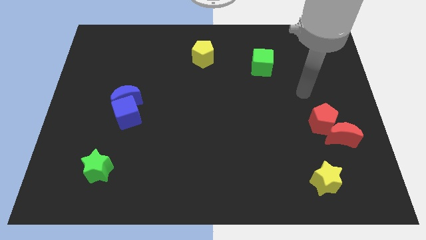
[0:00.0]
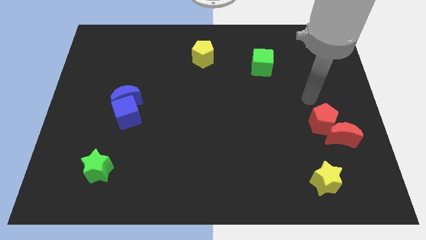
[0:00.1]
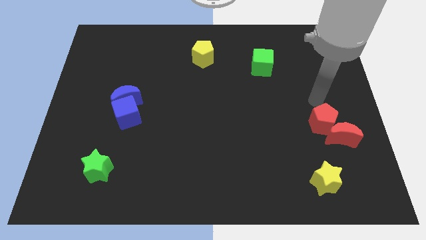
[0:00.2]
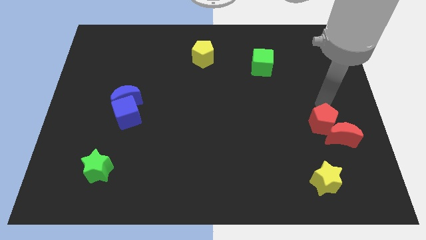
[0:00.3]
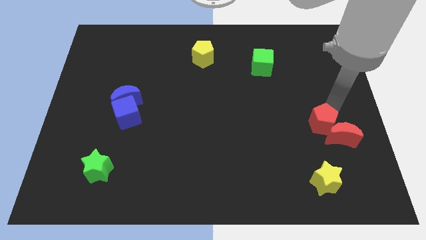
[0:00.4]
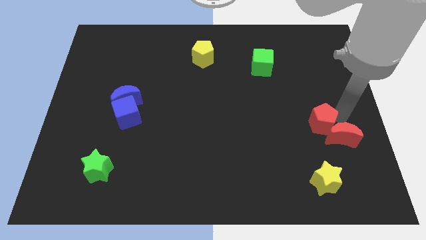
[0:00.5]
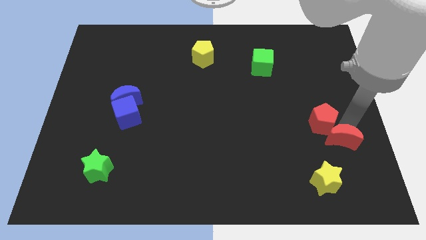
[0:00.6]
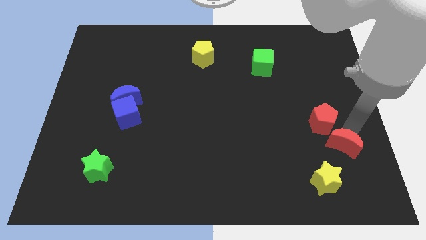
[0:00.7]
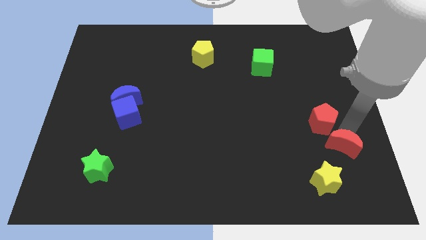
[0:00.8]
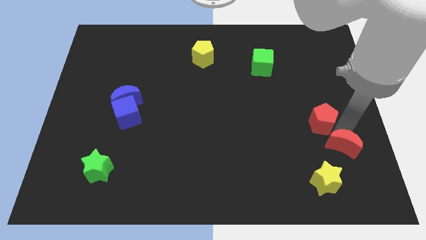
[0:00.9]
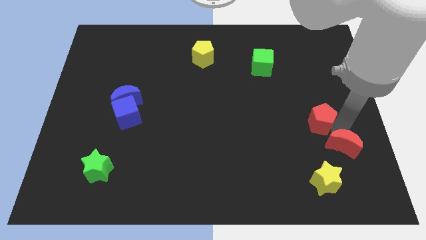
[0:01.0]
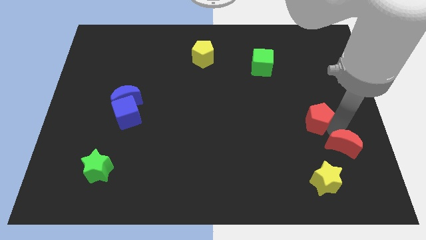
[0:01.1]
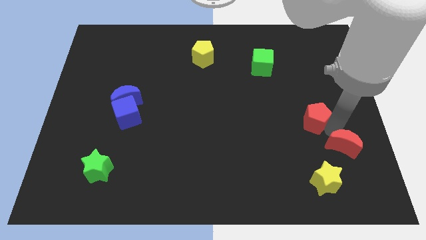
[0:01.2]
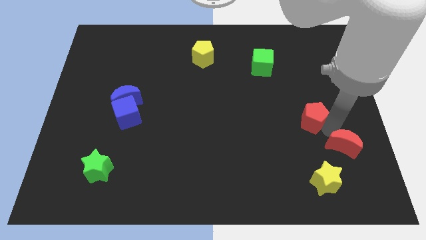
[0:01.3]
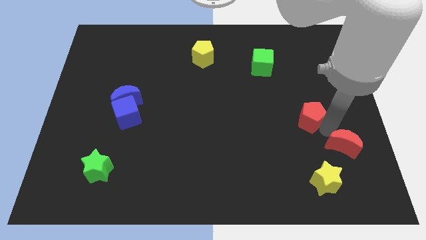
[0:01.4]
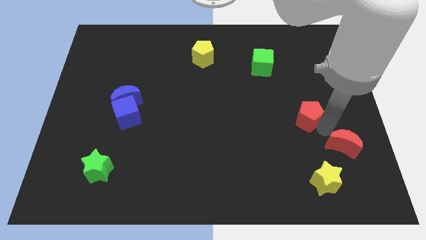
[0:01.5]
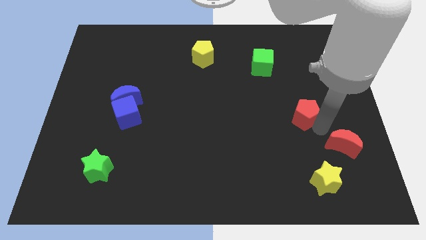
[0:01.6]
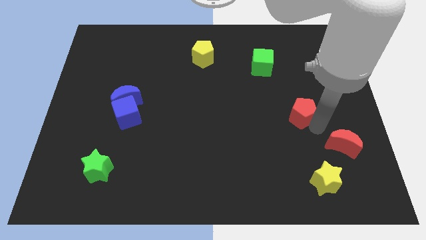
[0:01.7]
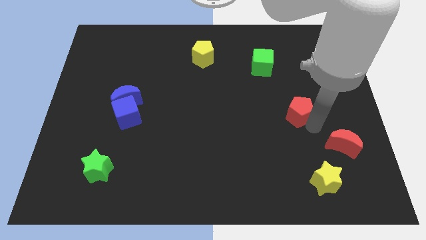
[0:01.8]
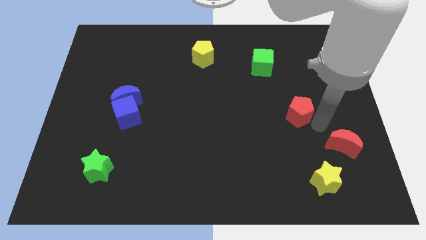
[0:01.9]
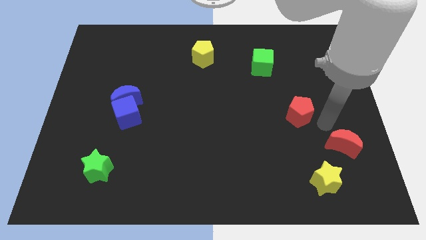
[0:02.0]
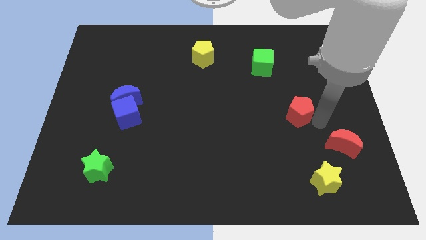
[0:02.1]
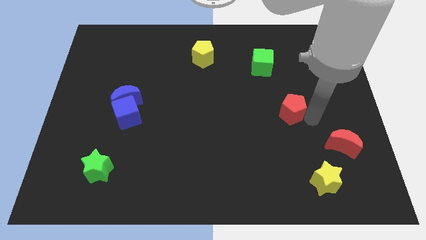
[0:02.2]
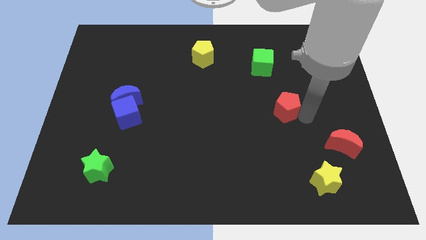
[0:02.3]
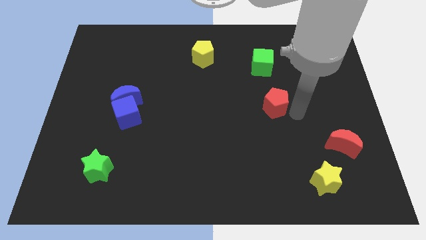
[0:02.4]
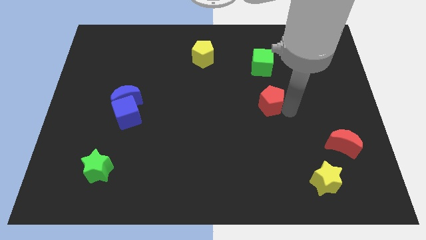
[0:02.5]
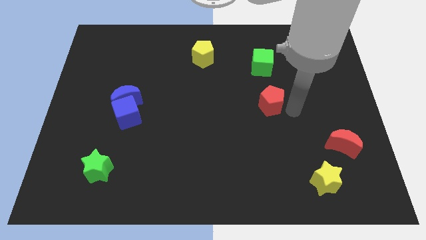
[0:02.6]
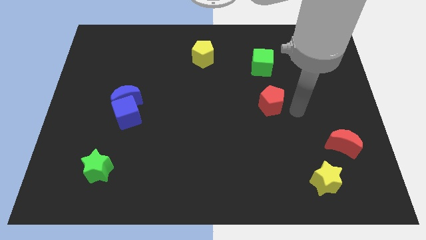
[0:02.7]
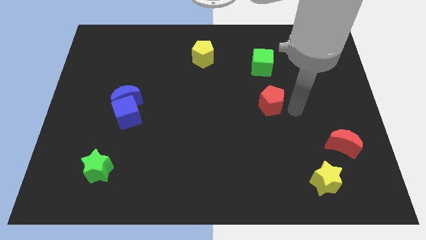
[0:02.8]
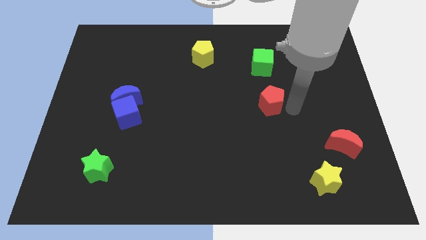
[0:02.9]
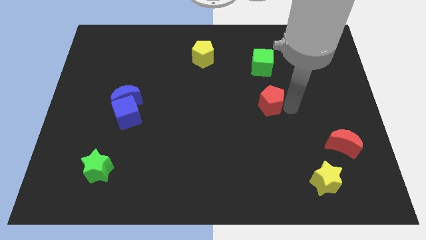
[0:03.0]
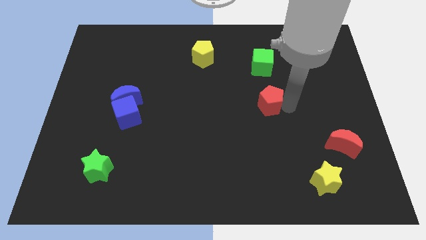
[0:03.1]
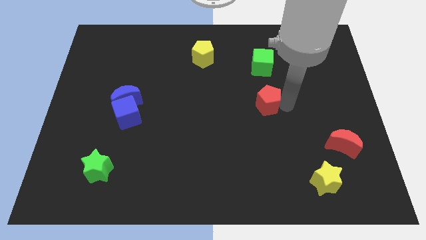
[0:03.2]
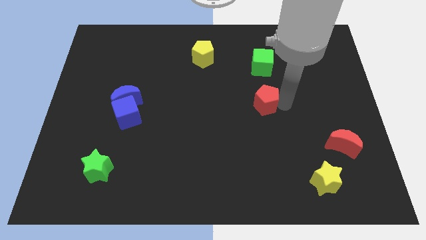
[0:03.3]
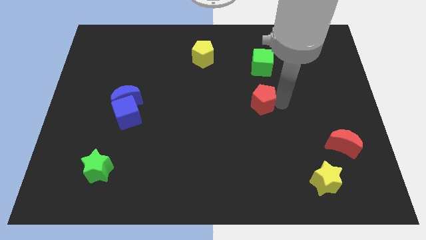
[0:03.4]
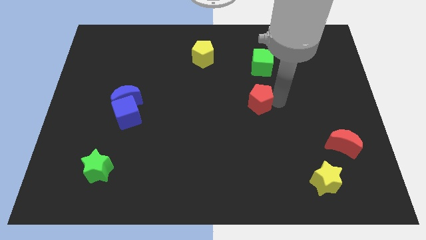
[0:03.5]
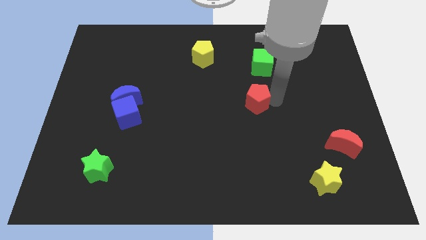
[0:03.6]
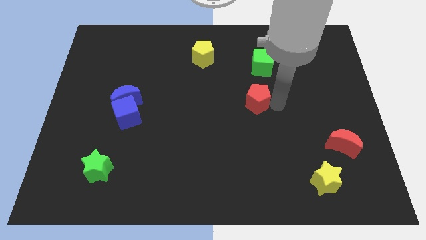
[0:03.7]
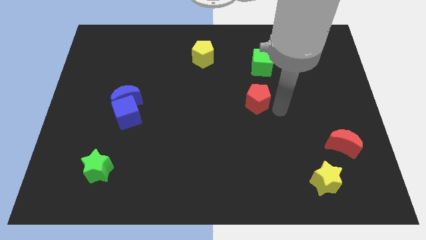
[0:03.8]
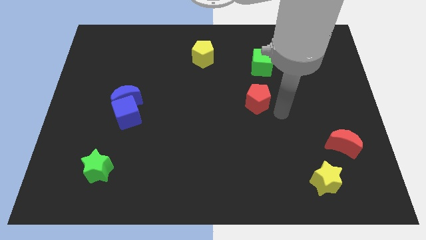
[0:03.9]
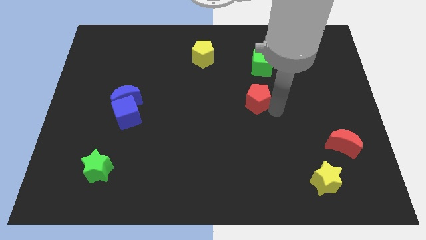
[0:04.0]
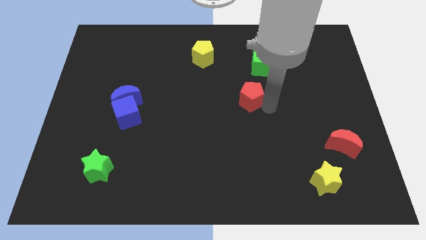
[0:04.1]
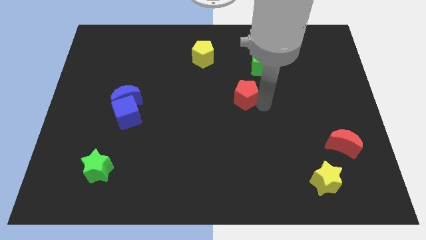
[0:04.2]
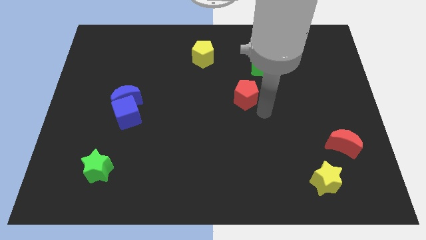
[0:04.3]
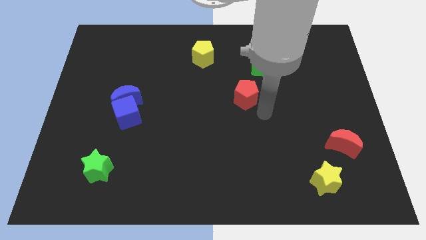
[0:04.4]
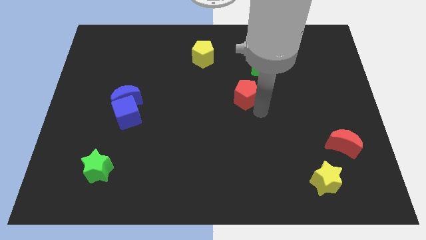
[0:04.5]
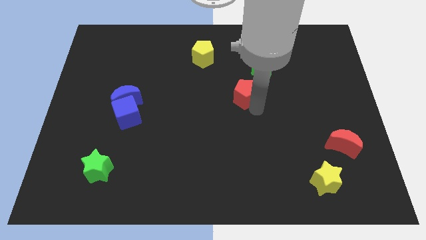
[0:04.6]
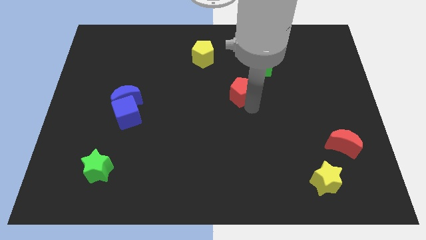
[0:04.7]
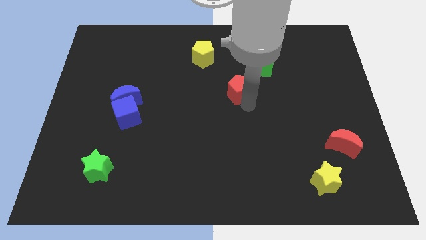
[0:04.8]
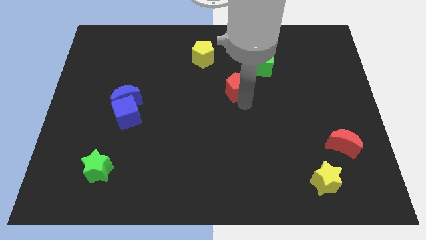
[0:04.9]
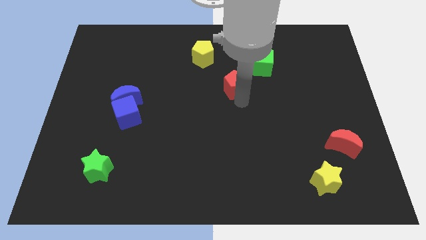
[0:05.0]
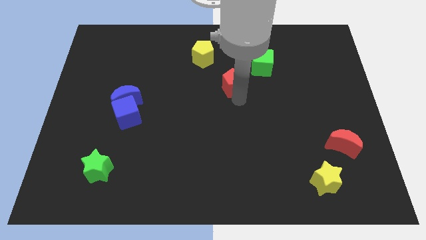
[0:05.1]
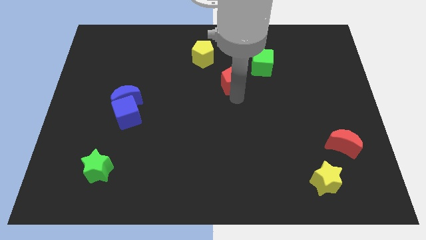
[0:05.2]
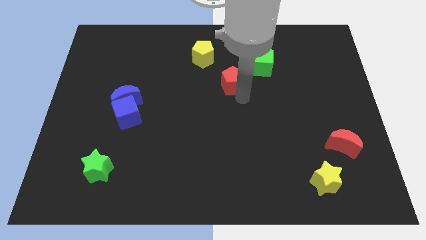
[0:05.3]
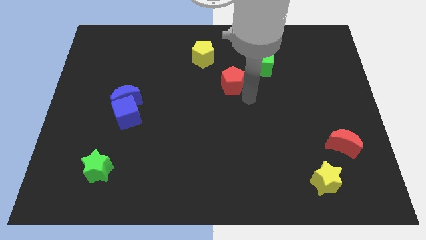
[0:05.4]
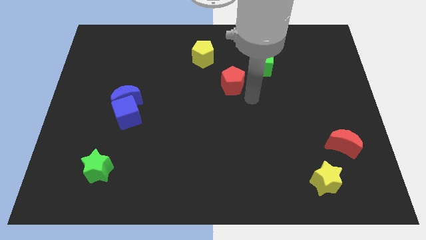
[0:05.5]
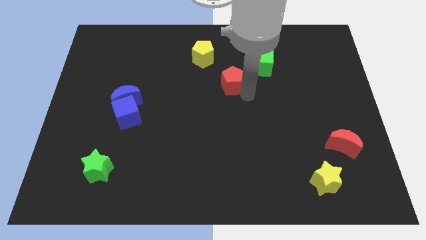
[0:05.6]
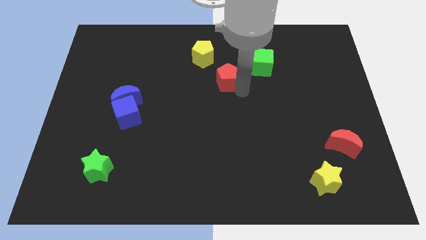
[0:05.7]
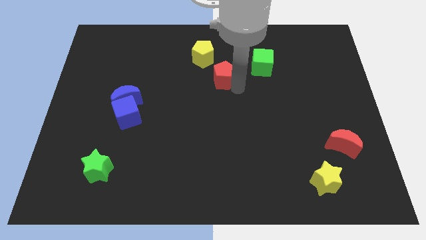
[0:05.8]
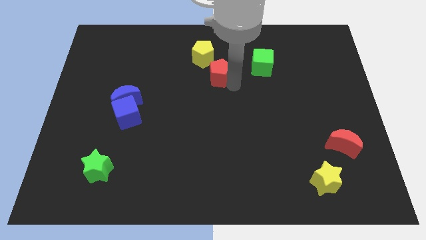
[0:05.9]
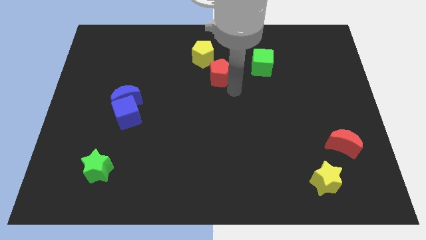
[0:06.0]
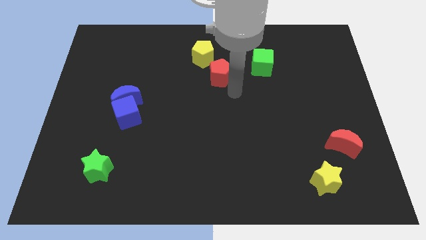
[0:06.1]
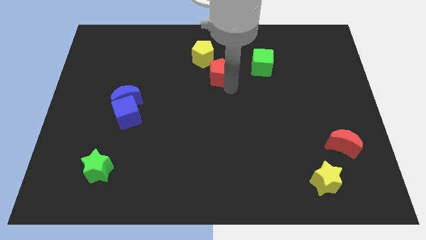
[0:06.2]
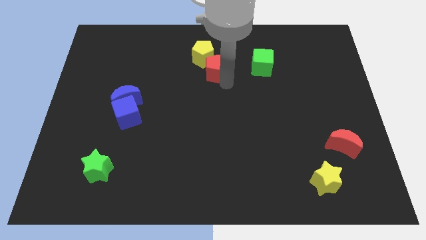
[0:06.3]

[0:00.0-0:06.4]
move the red pentagon to the yellow pentagon

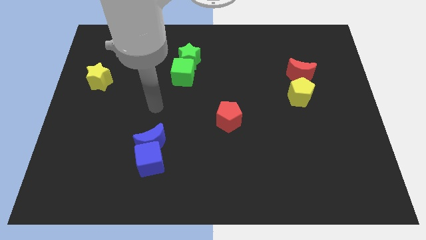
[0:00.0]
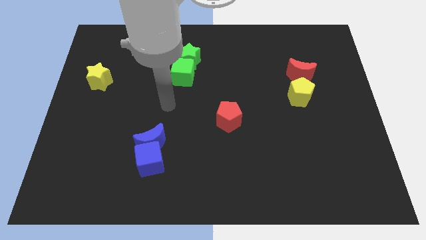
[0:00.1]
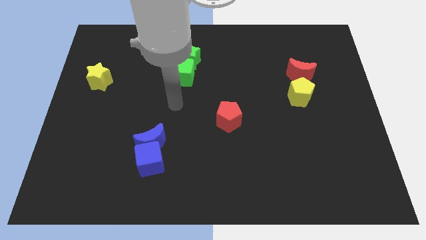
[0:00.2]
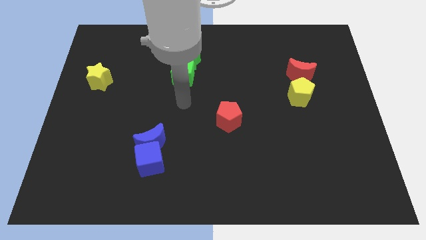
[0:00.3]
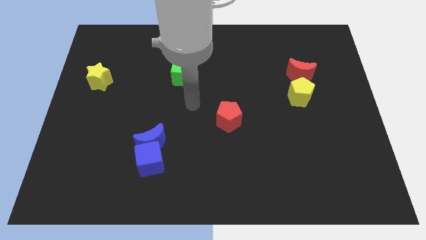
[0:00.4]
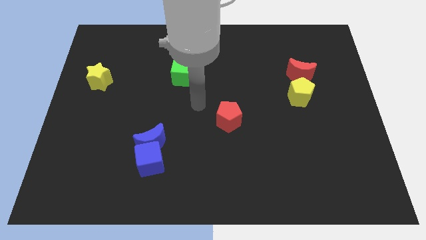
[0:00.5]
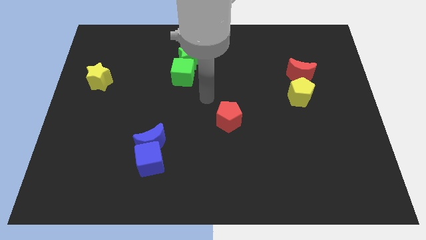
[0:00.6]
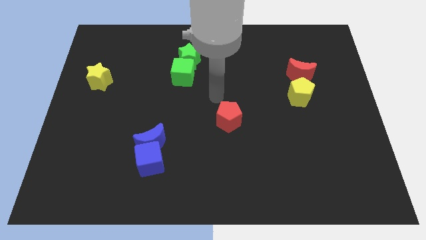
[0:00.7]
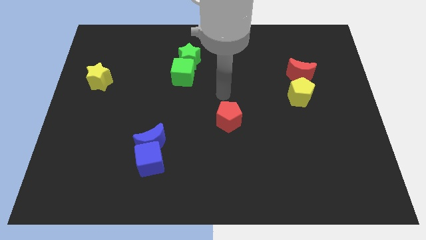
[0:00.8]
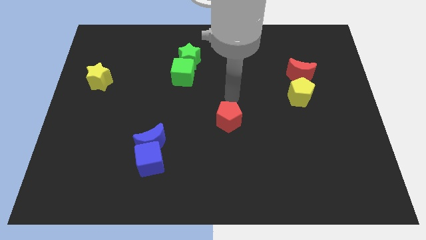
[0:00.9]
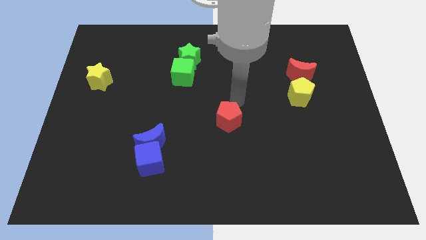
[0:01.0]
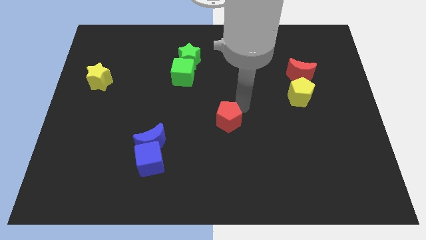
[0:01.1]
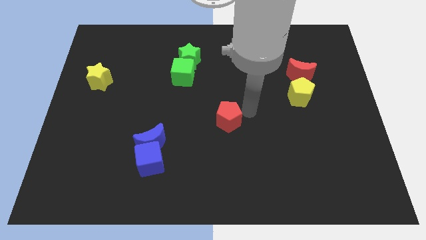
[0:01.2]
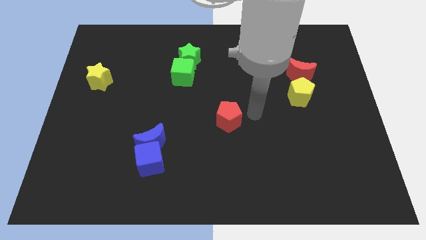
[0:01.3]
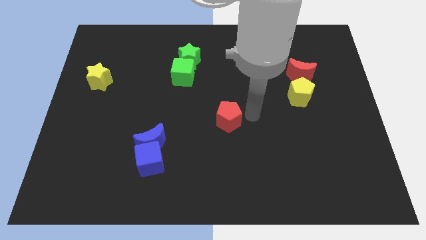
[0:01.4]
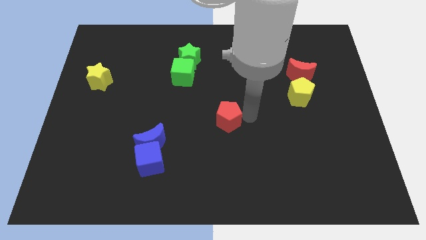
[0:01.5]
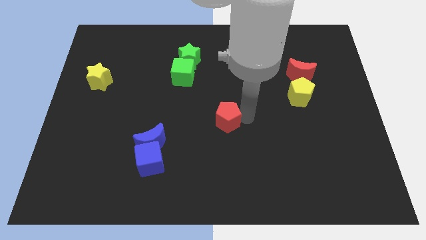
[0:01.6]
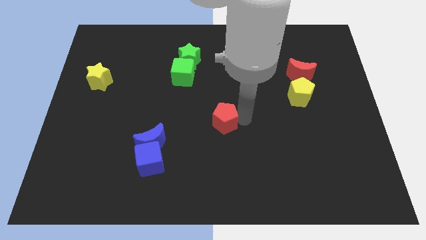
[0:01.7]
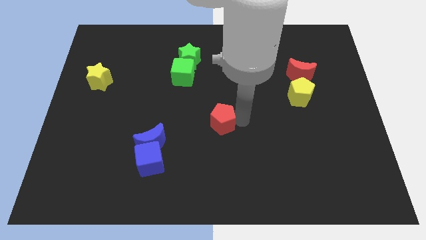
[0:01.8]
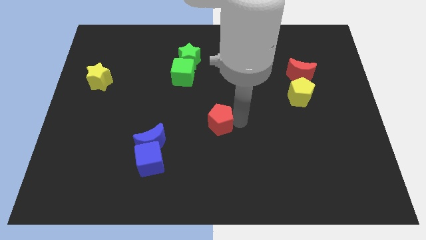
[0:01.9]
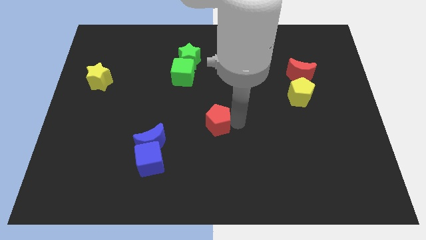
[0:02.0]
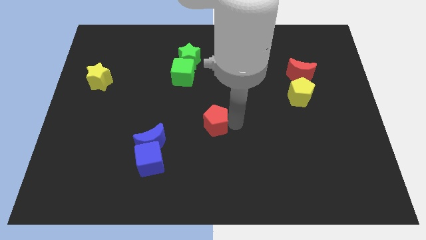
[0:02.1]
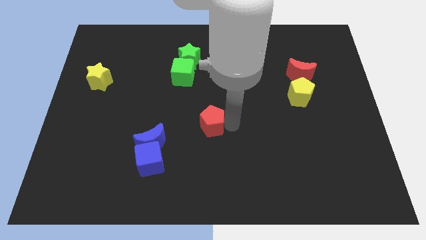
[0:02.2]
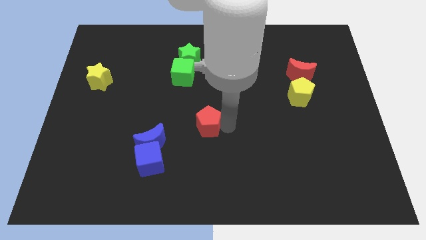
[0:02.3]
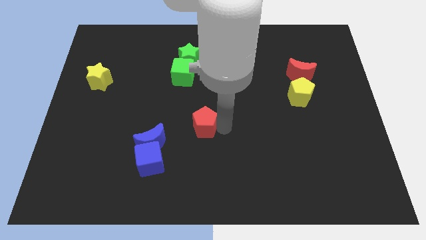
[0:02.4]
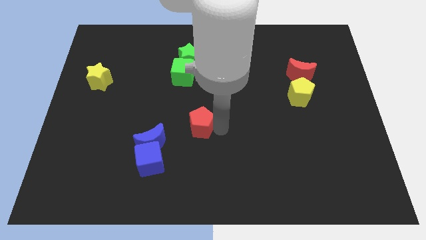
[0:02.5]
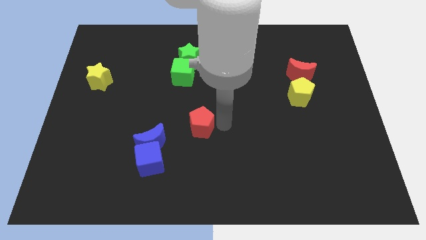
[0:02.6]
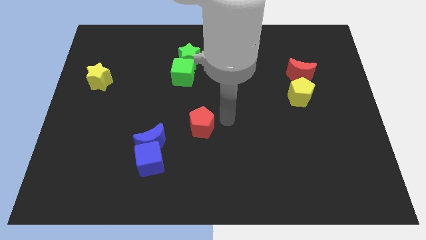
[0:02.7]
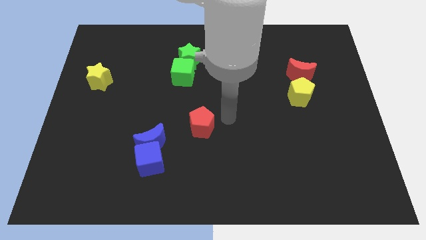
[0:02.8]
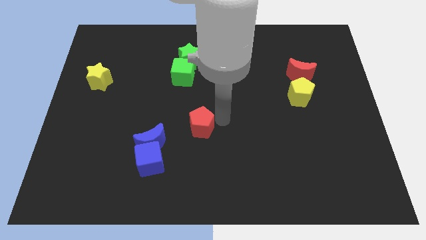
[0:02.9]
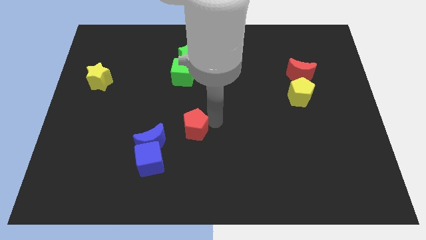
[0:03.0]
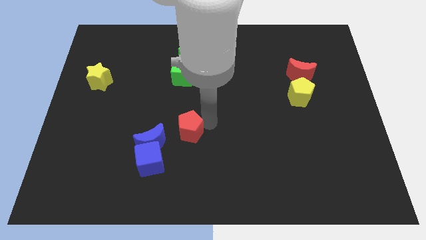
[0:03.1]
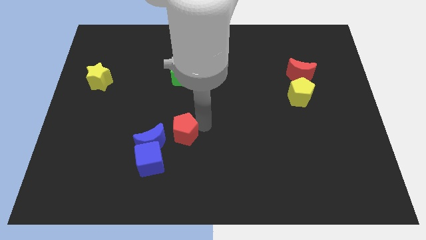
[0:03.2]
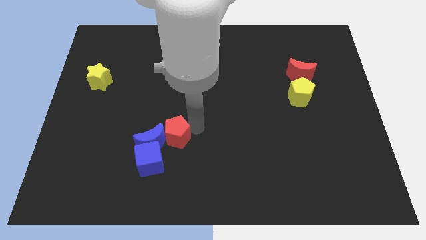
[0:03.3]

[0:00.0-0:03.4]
put the red pentagon close to the blue moon
